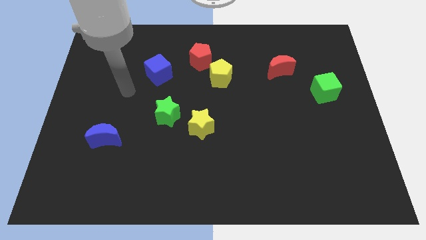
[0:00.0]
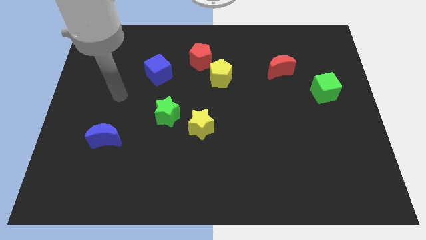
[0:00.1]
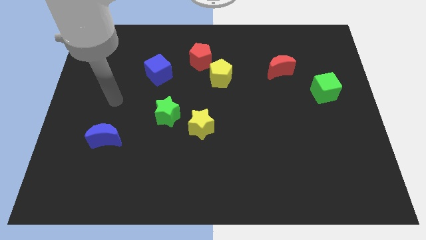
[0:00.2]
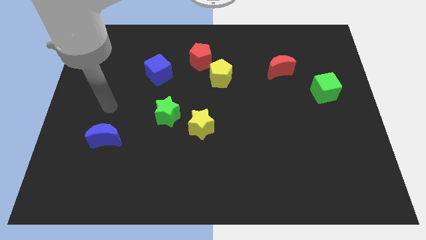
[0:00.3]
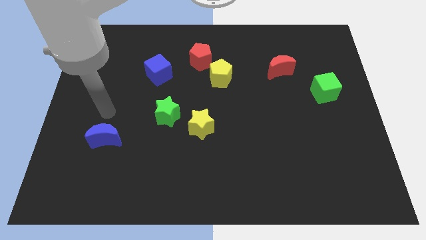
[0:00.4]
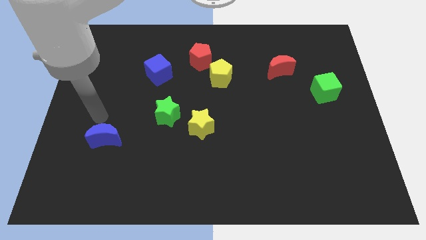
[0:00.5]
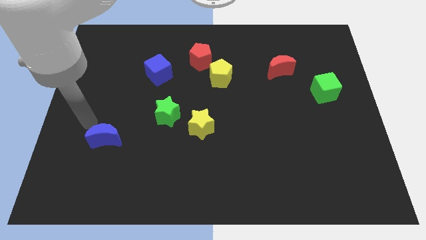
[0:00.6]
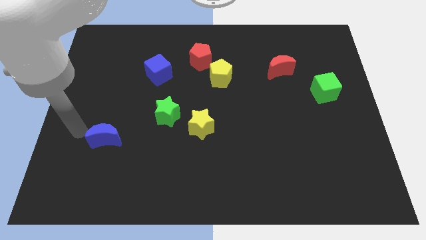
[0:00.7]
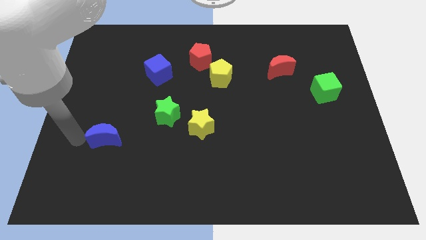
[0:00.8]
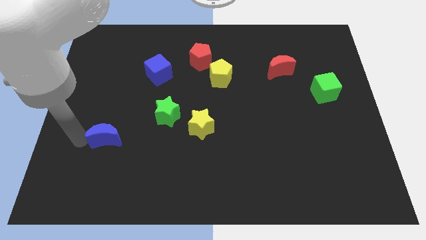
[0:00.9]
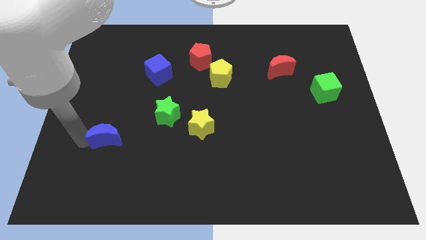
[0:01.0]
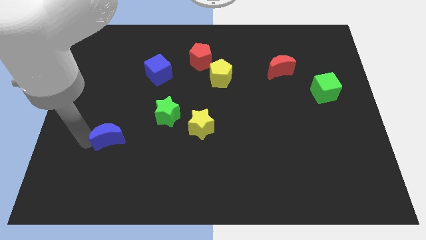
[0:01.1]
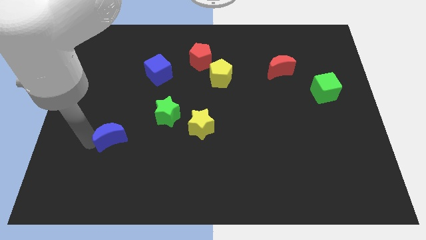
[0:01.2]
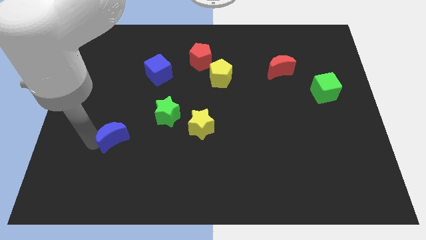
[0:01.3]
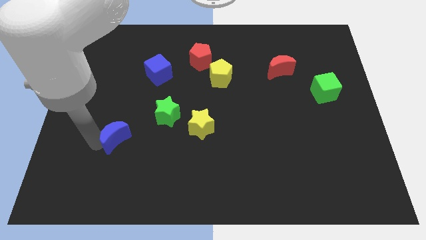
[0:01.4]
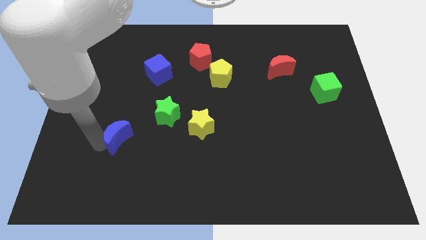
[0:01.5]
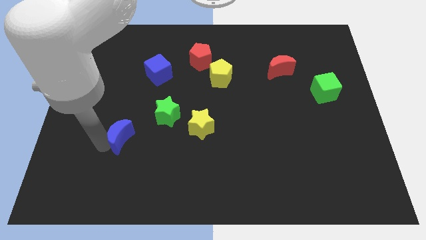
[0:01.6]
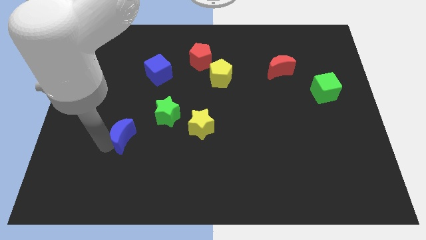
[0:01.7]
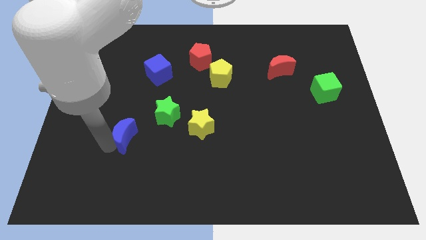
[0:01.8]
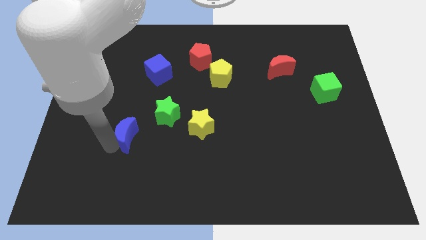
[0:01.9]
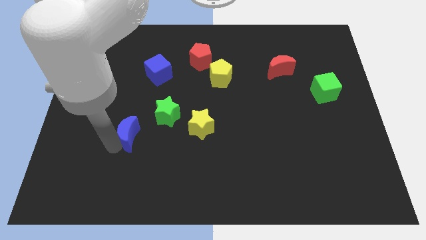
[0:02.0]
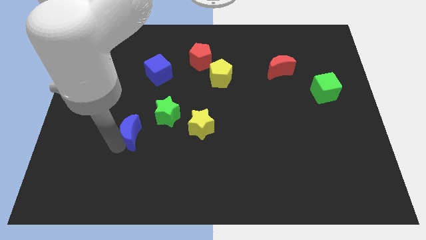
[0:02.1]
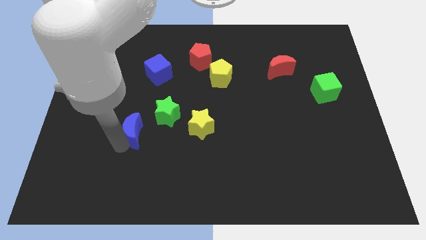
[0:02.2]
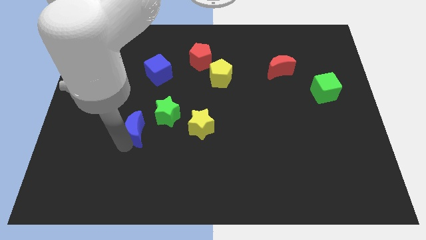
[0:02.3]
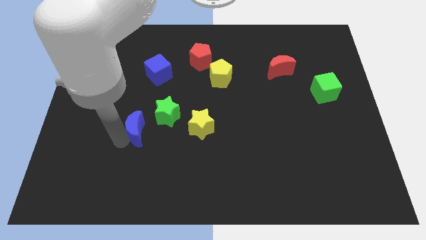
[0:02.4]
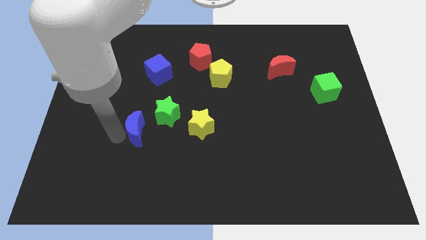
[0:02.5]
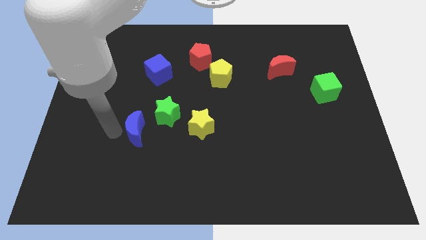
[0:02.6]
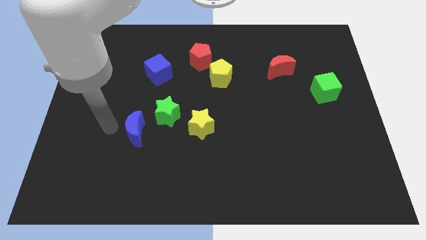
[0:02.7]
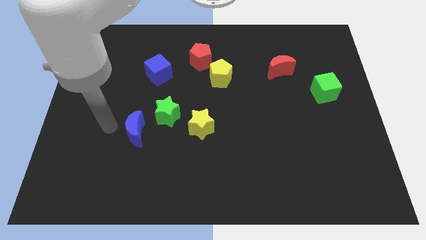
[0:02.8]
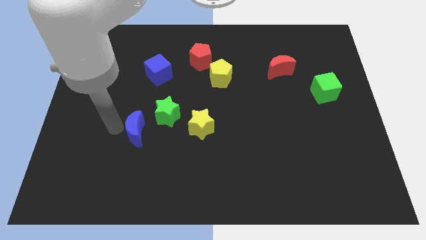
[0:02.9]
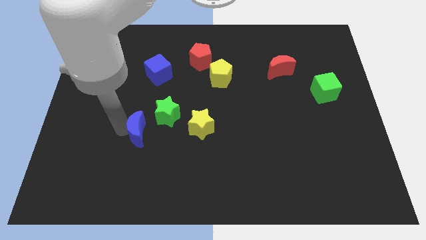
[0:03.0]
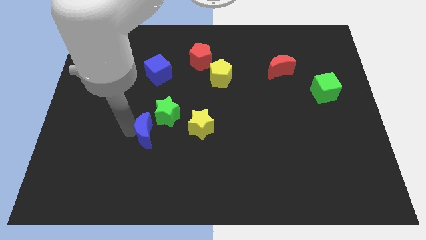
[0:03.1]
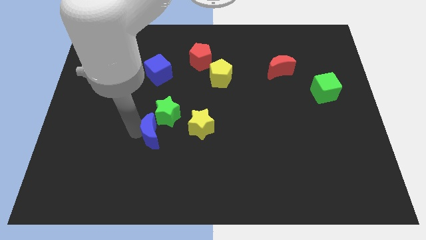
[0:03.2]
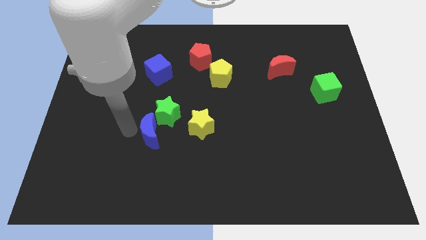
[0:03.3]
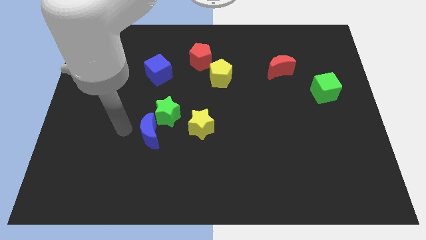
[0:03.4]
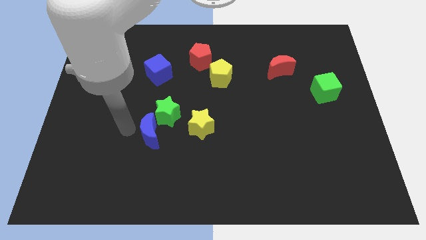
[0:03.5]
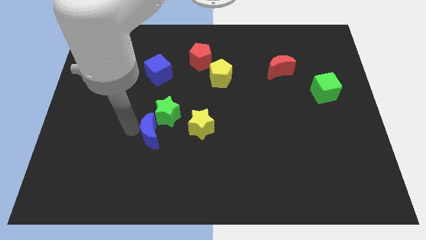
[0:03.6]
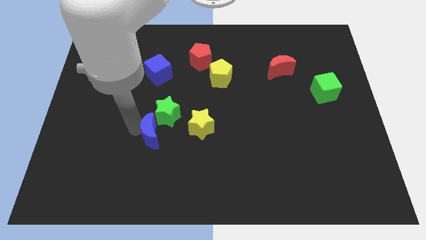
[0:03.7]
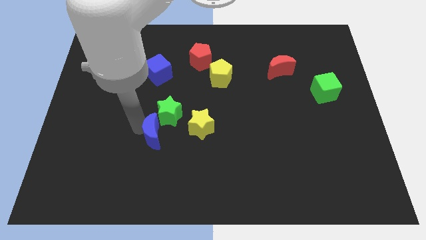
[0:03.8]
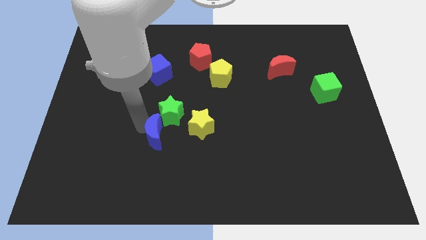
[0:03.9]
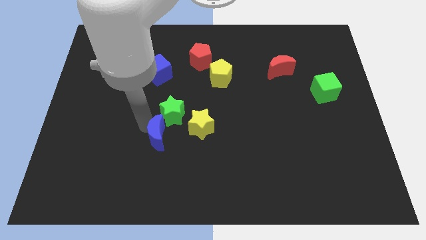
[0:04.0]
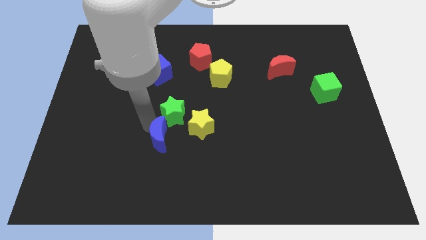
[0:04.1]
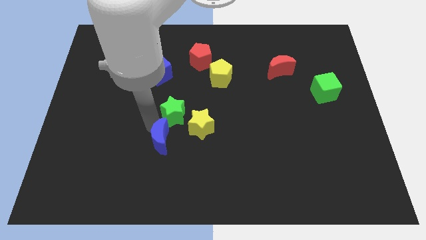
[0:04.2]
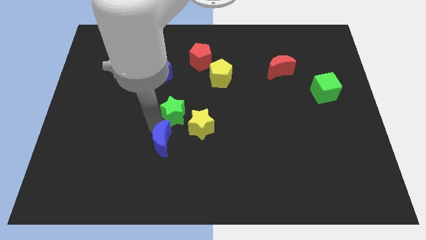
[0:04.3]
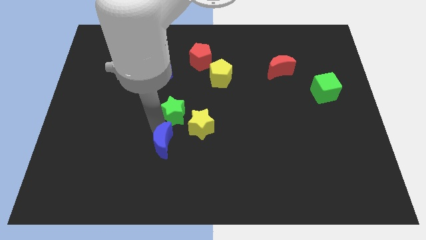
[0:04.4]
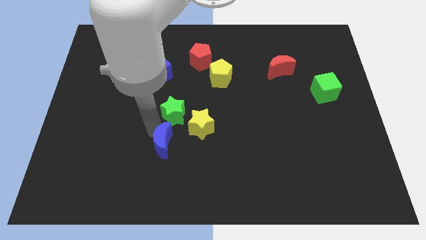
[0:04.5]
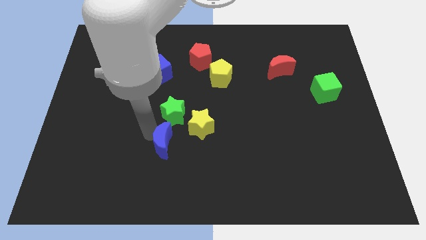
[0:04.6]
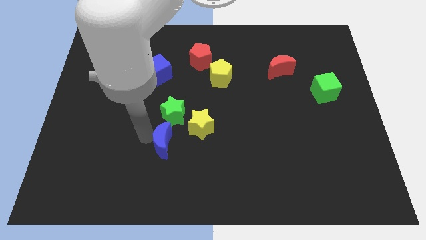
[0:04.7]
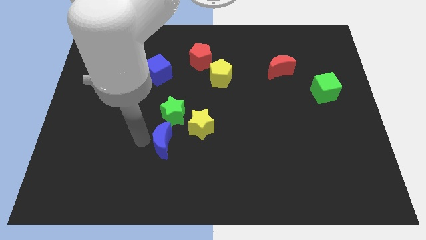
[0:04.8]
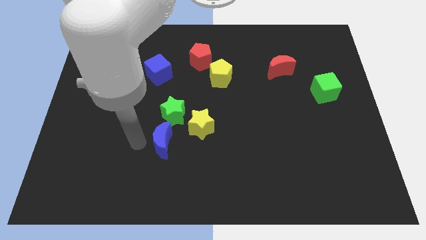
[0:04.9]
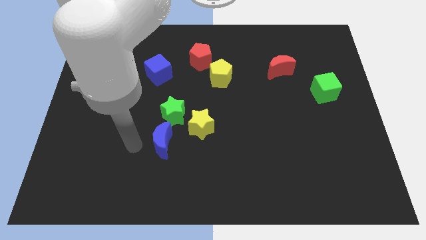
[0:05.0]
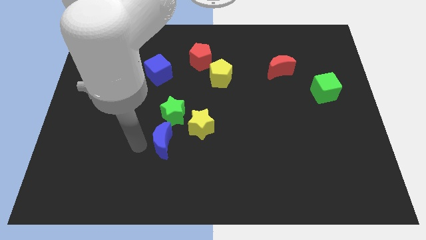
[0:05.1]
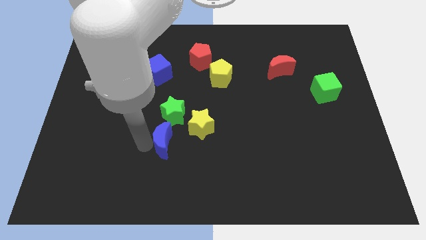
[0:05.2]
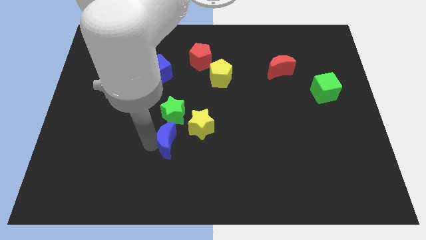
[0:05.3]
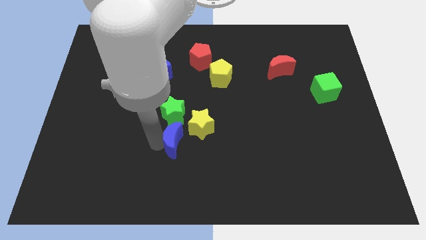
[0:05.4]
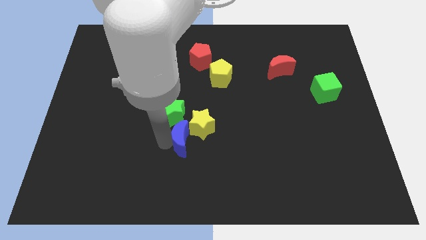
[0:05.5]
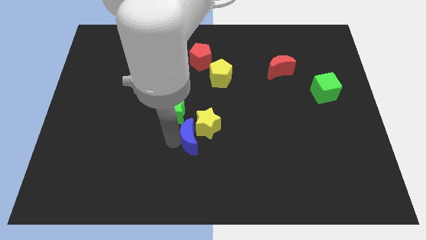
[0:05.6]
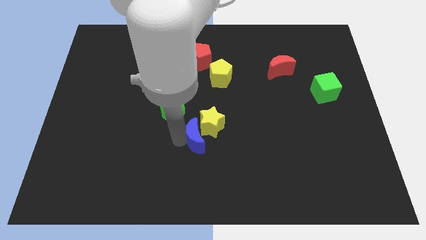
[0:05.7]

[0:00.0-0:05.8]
slide the blue moon right

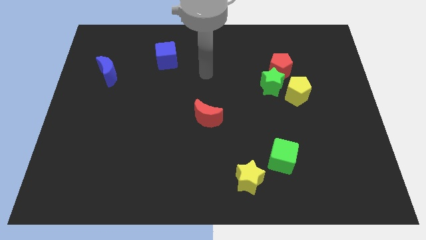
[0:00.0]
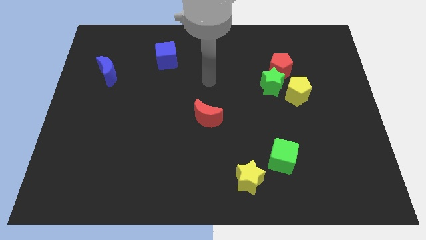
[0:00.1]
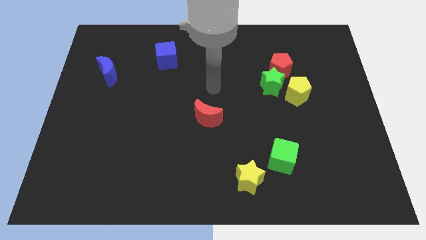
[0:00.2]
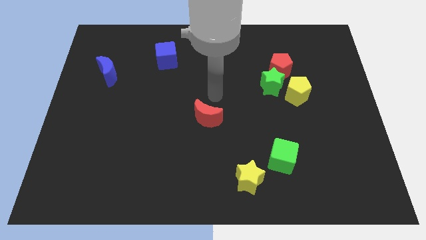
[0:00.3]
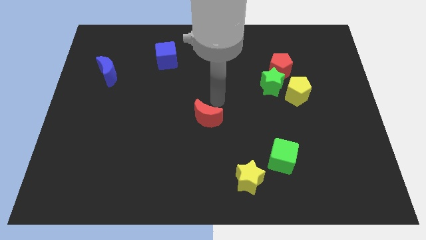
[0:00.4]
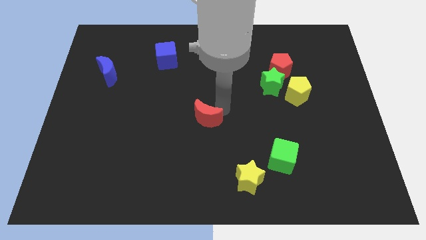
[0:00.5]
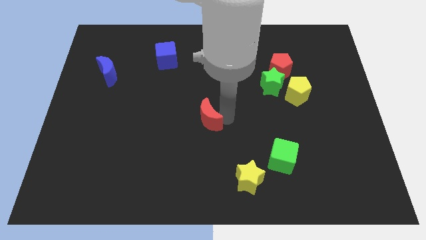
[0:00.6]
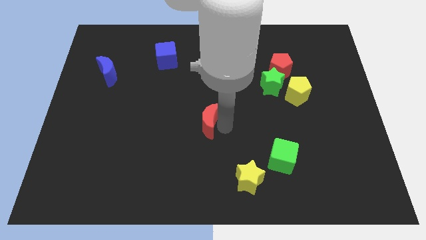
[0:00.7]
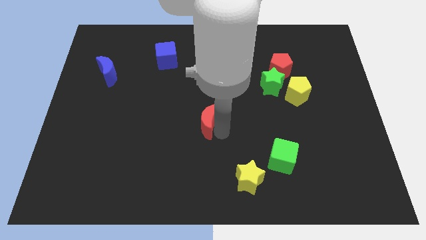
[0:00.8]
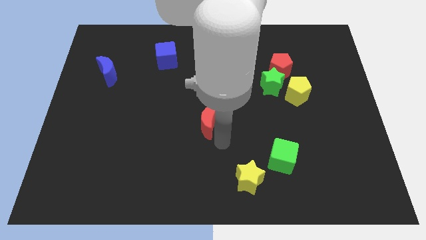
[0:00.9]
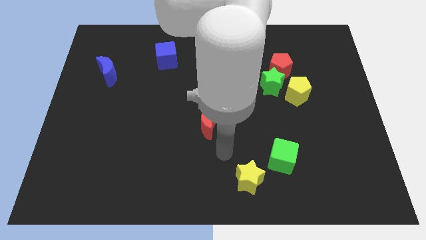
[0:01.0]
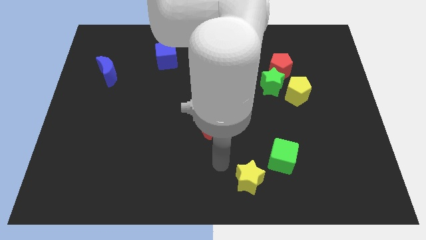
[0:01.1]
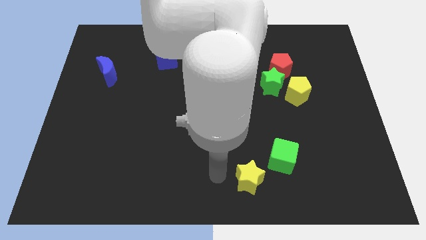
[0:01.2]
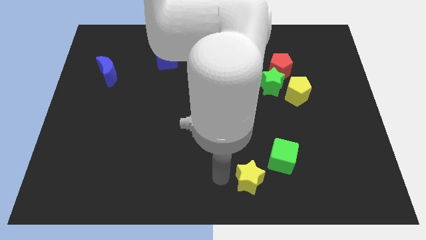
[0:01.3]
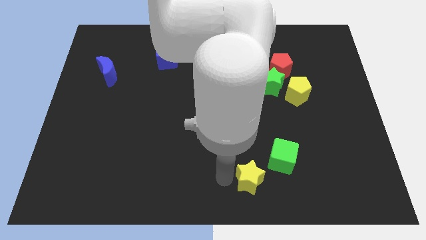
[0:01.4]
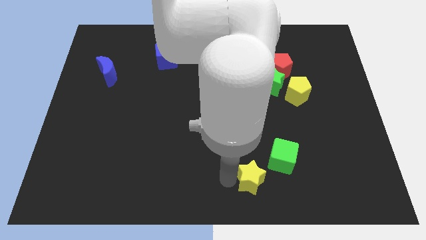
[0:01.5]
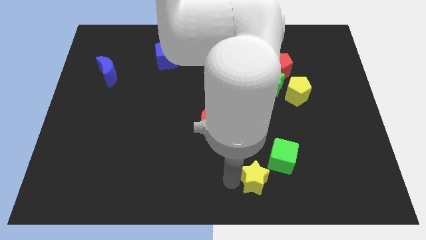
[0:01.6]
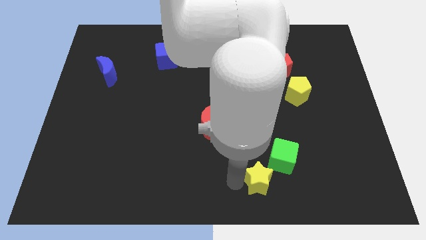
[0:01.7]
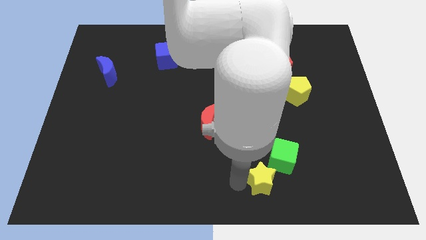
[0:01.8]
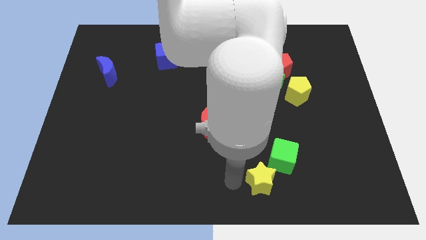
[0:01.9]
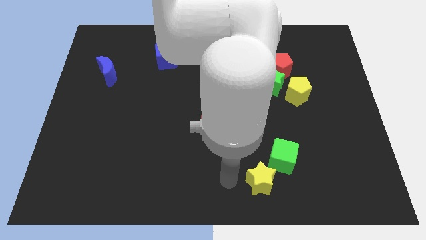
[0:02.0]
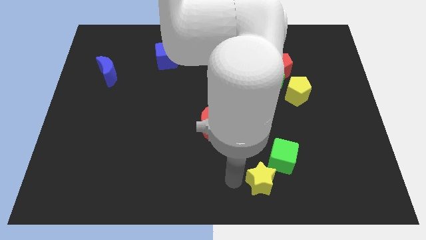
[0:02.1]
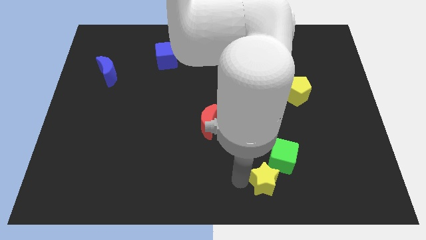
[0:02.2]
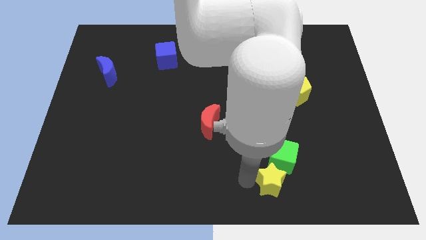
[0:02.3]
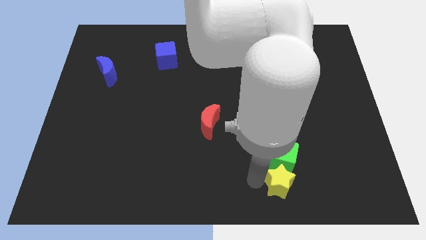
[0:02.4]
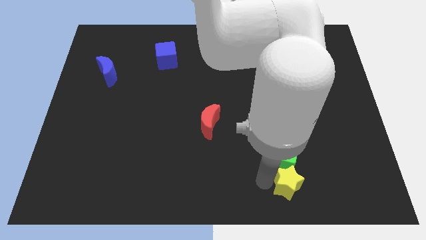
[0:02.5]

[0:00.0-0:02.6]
move the yellow star slightly to the right
